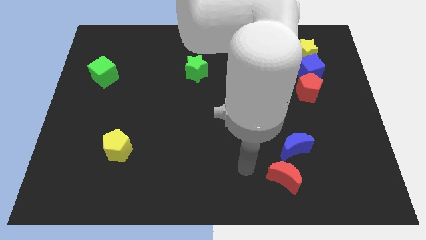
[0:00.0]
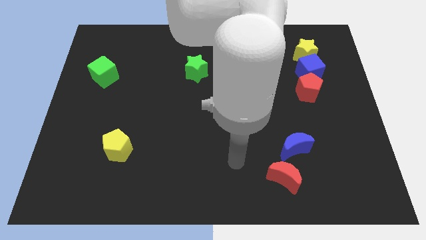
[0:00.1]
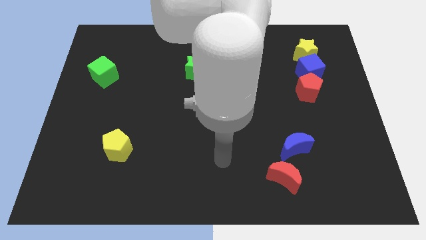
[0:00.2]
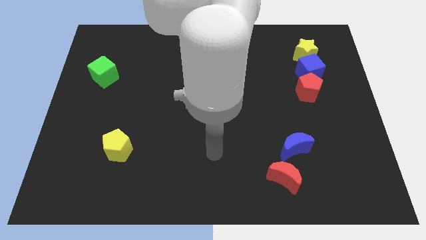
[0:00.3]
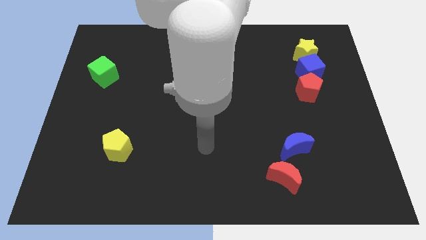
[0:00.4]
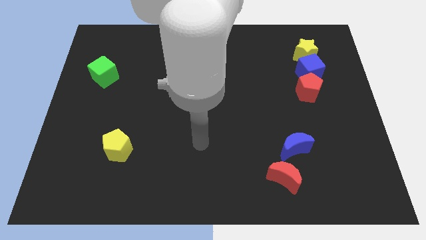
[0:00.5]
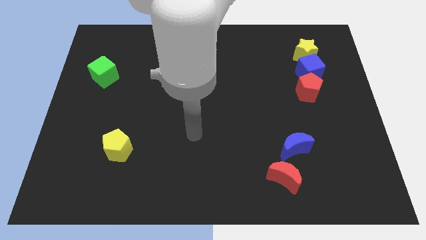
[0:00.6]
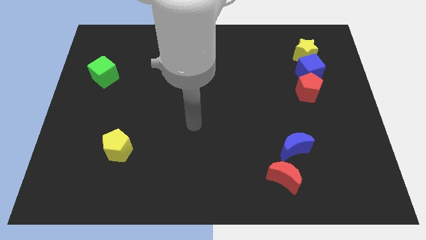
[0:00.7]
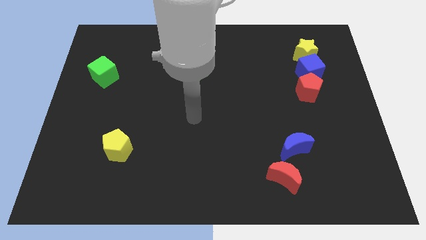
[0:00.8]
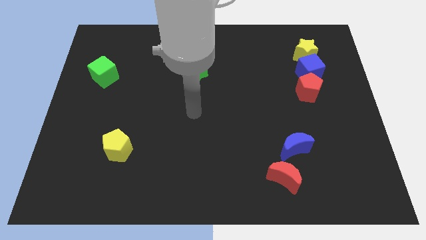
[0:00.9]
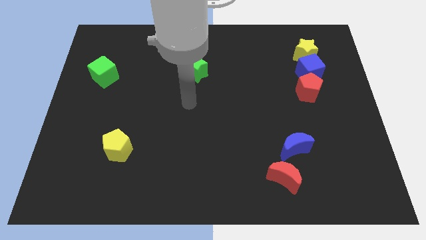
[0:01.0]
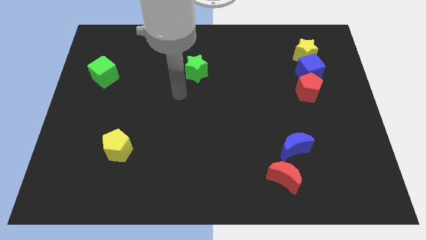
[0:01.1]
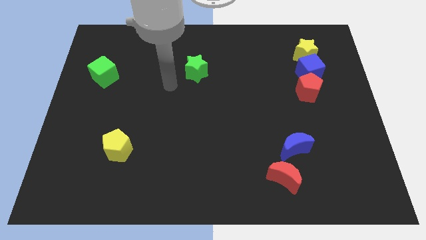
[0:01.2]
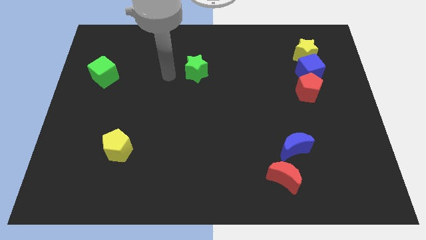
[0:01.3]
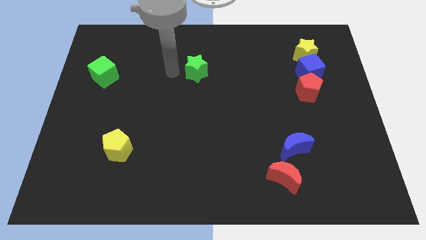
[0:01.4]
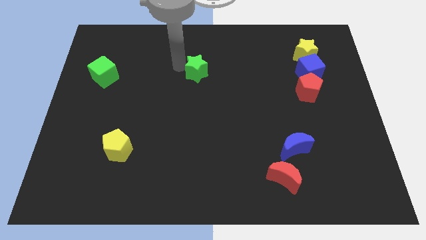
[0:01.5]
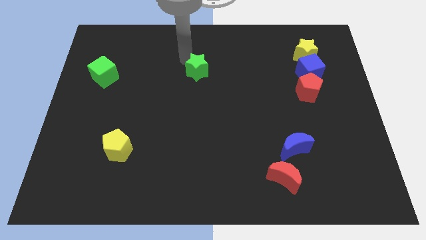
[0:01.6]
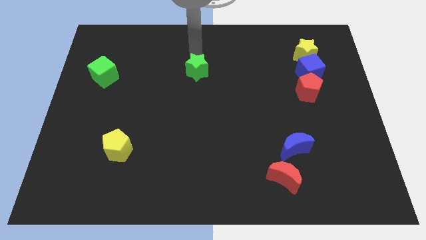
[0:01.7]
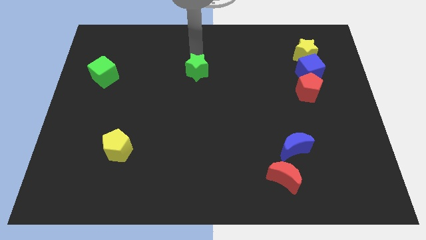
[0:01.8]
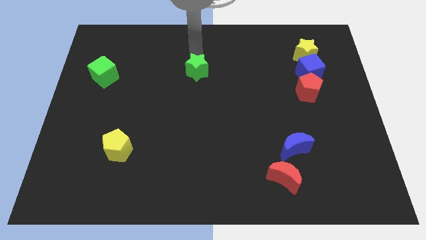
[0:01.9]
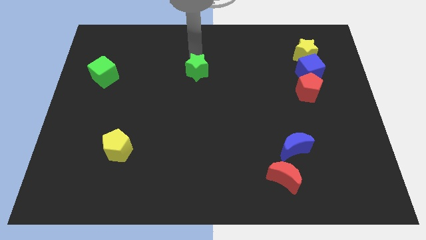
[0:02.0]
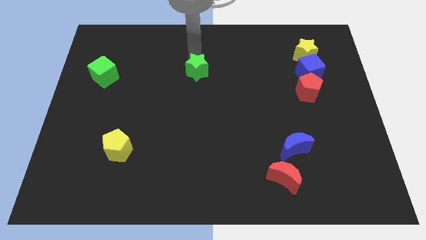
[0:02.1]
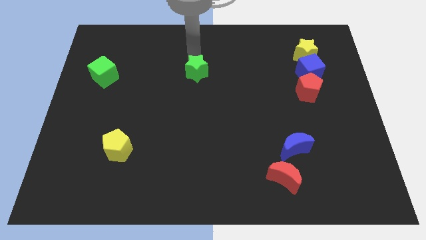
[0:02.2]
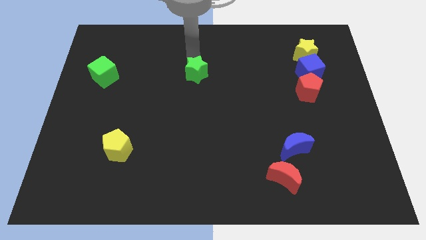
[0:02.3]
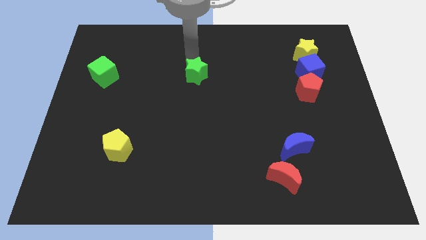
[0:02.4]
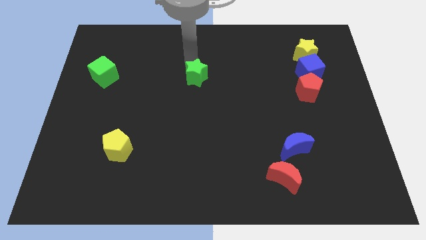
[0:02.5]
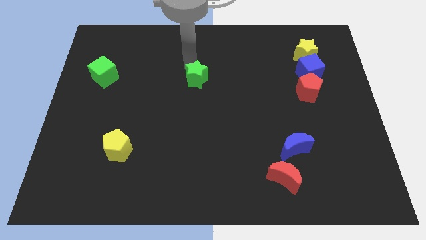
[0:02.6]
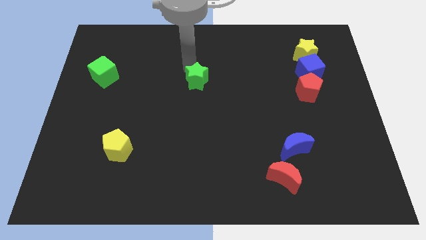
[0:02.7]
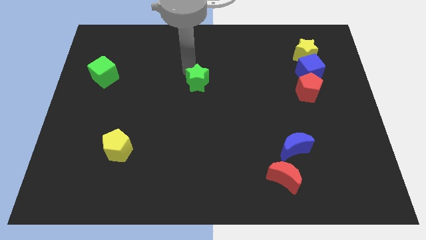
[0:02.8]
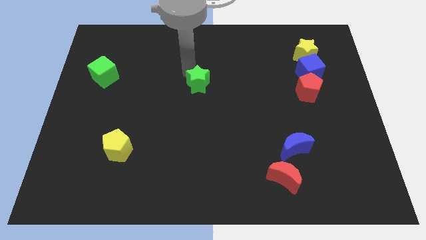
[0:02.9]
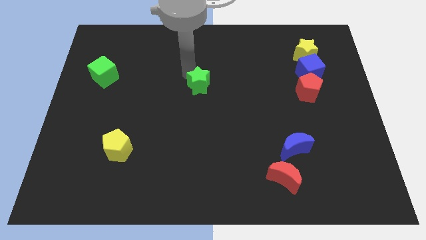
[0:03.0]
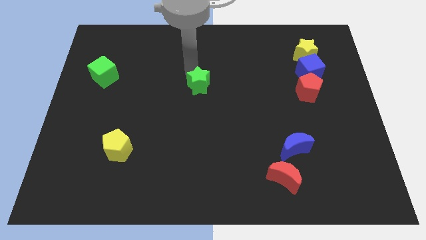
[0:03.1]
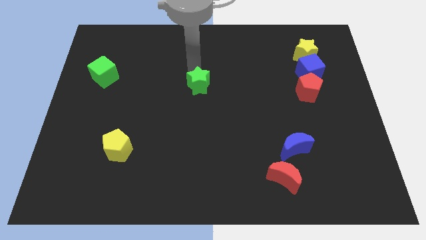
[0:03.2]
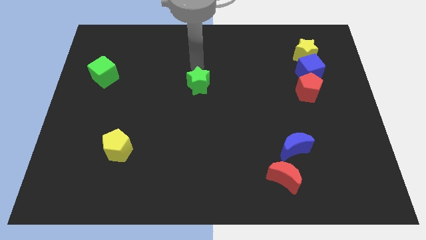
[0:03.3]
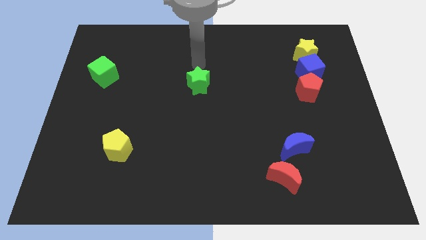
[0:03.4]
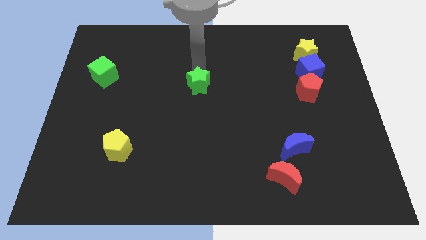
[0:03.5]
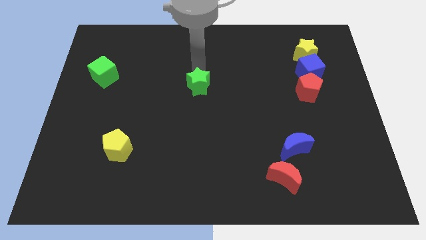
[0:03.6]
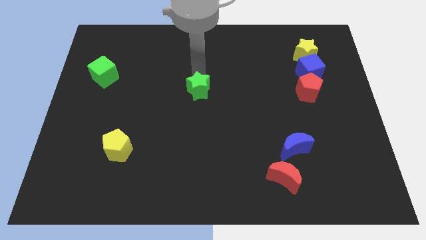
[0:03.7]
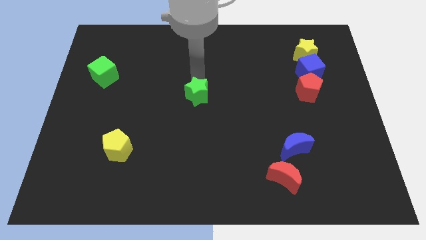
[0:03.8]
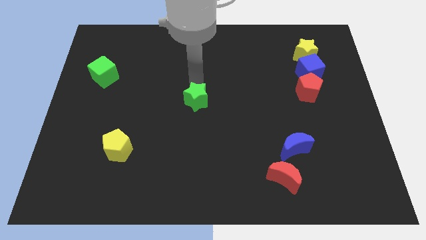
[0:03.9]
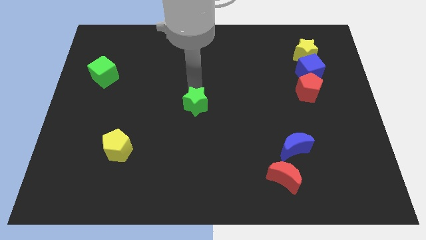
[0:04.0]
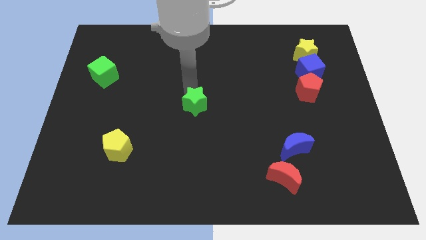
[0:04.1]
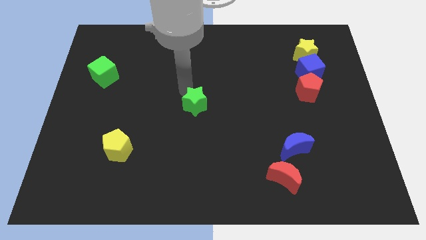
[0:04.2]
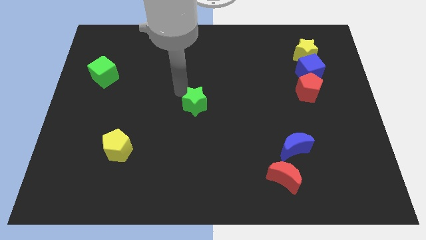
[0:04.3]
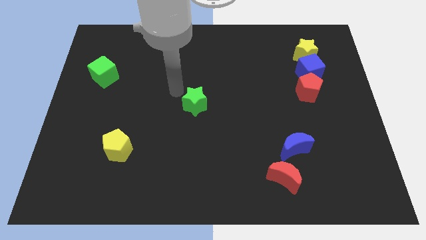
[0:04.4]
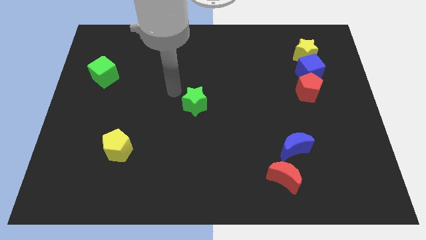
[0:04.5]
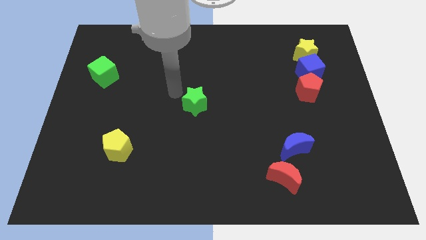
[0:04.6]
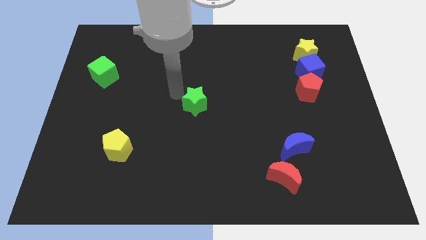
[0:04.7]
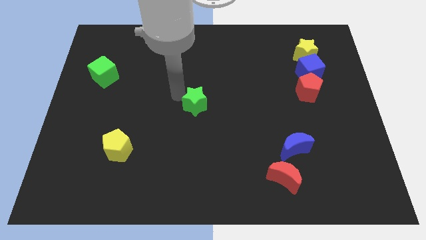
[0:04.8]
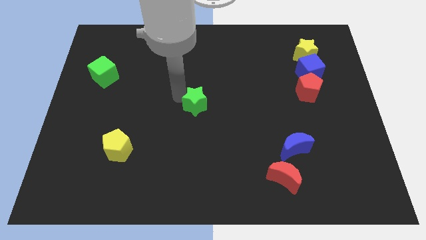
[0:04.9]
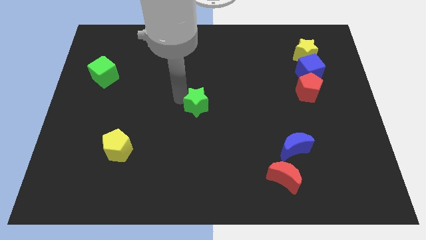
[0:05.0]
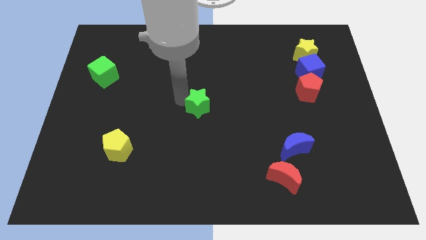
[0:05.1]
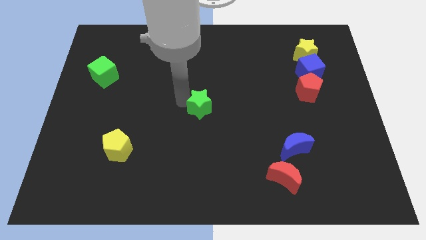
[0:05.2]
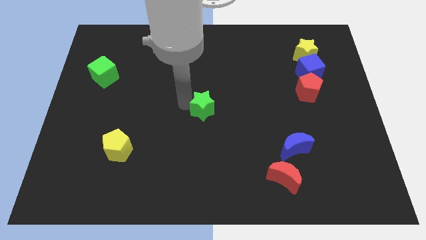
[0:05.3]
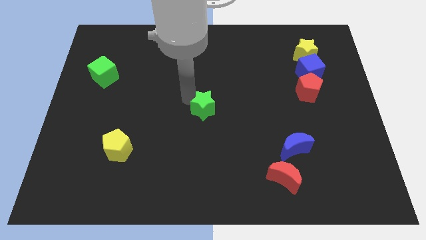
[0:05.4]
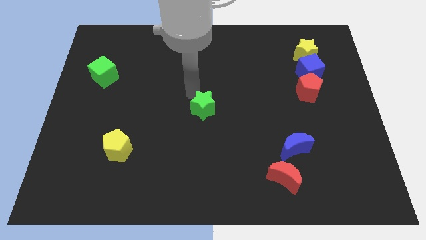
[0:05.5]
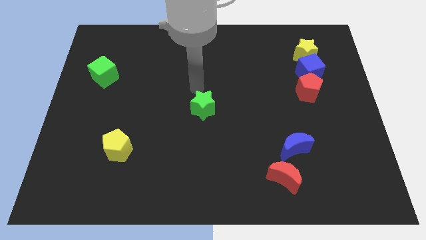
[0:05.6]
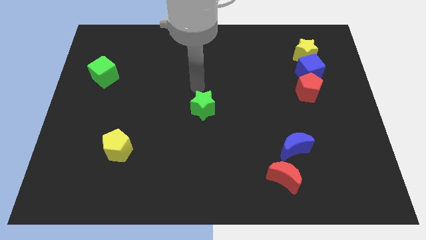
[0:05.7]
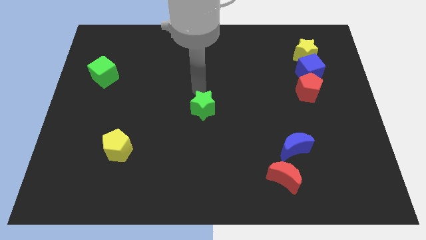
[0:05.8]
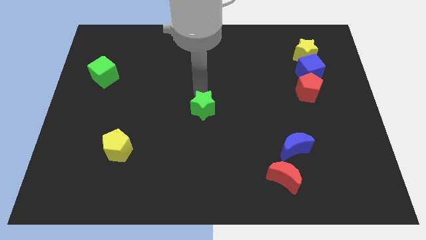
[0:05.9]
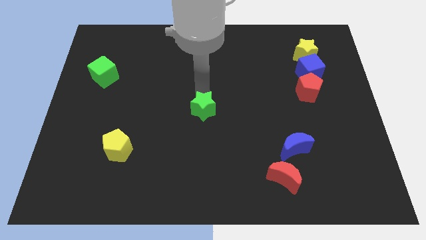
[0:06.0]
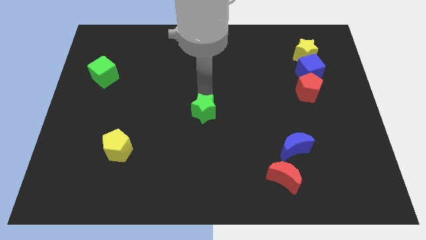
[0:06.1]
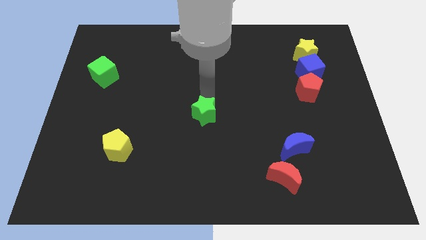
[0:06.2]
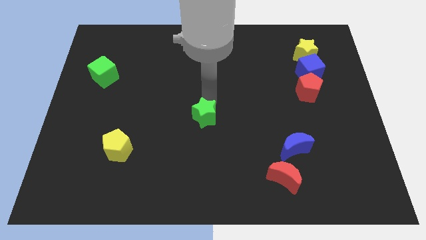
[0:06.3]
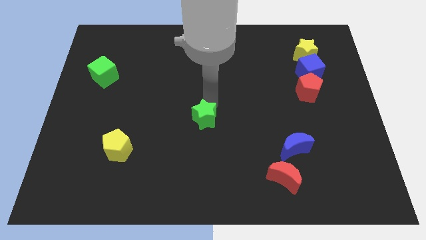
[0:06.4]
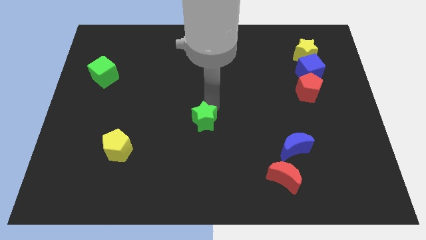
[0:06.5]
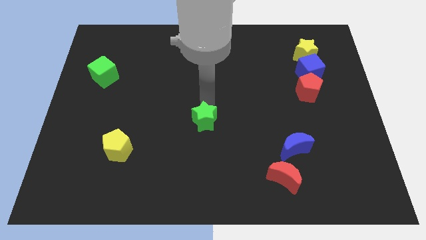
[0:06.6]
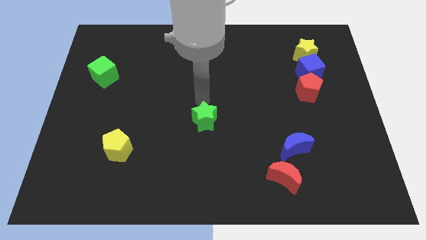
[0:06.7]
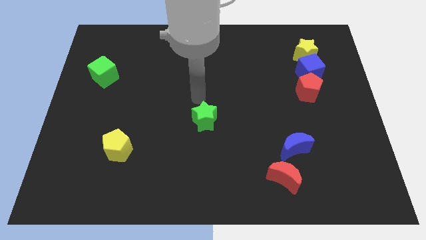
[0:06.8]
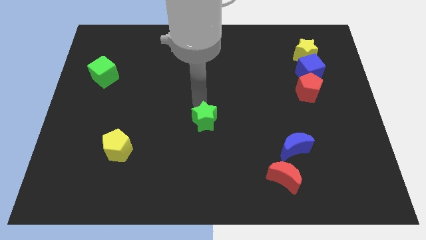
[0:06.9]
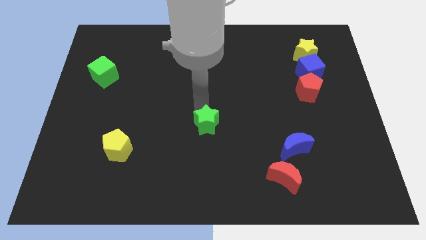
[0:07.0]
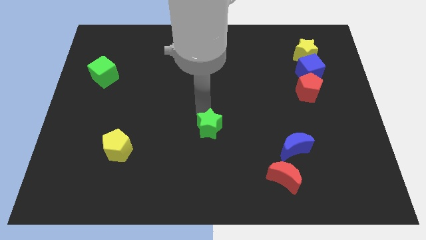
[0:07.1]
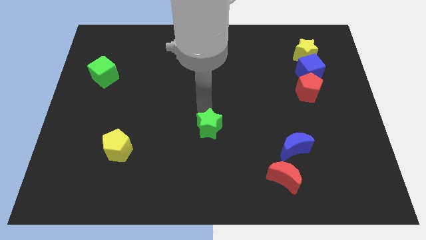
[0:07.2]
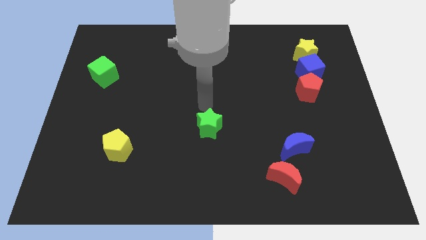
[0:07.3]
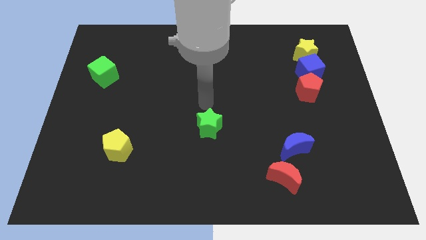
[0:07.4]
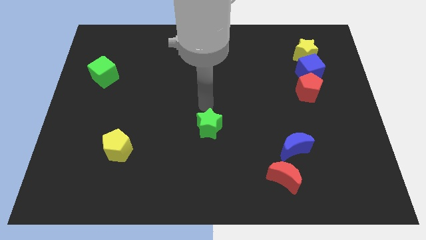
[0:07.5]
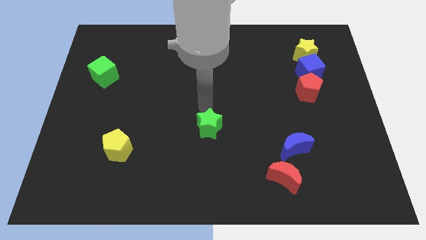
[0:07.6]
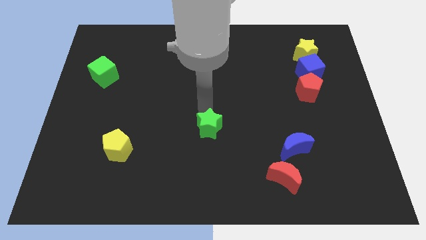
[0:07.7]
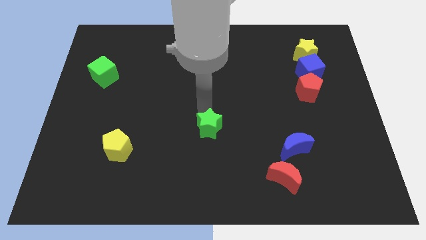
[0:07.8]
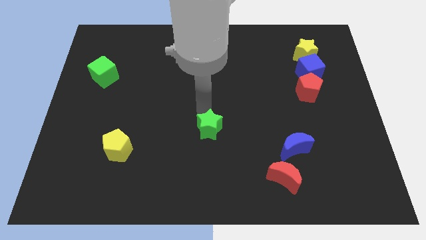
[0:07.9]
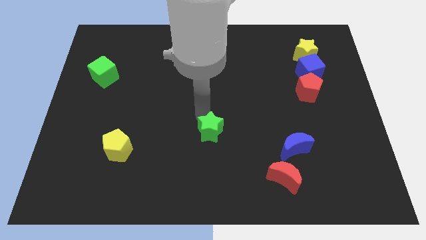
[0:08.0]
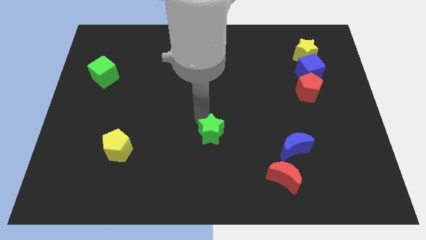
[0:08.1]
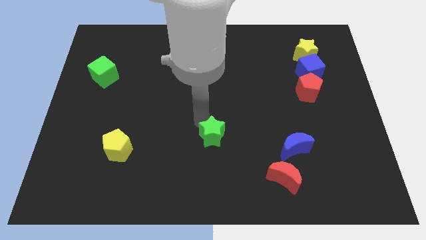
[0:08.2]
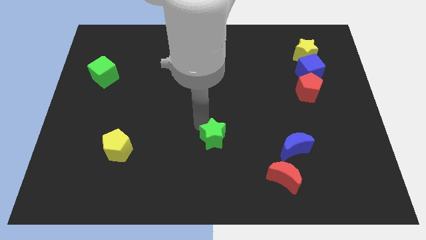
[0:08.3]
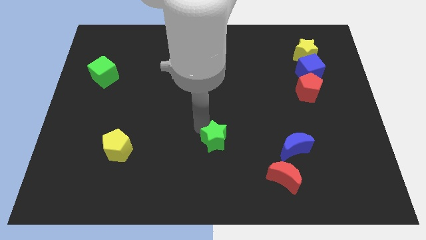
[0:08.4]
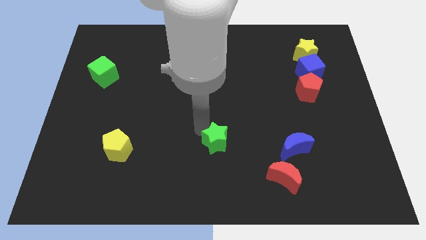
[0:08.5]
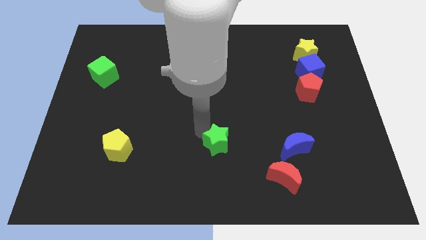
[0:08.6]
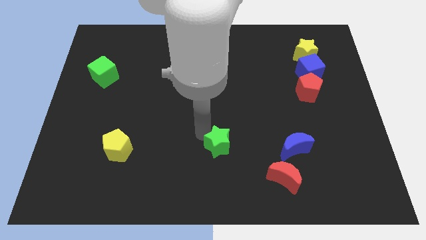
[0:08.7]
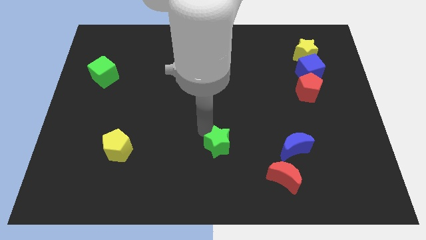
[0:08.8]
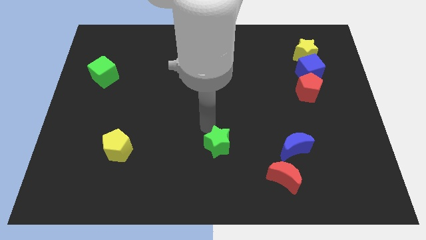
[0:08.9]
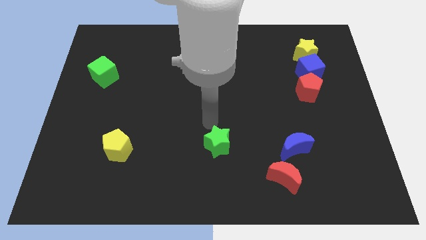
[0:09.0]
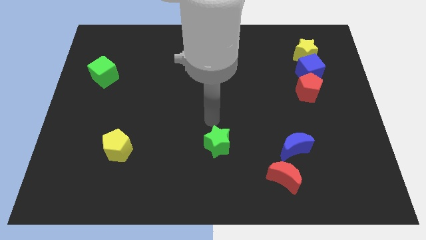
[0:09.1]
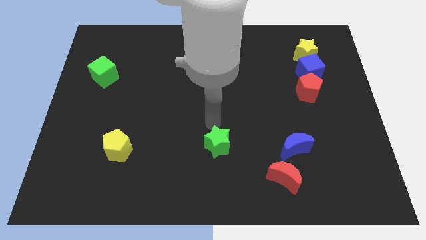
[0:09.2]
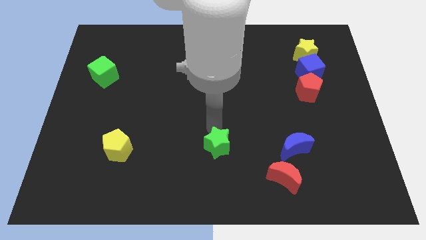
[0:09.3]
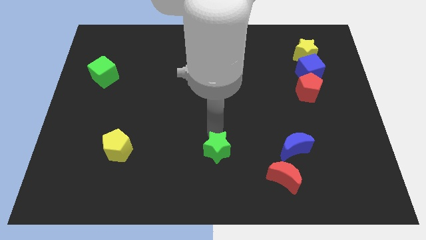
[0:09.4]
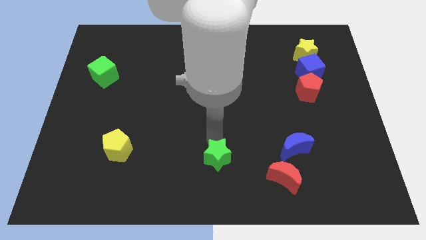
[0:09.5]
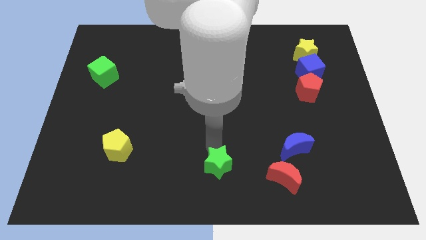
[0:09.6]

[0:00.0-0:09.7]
put the green star left of the red moon
